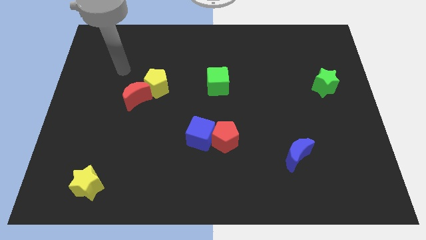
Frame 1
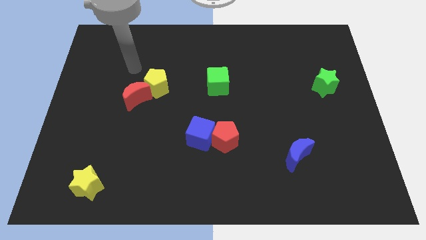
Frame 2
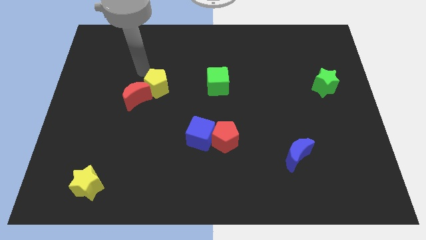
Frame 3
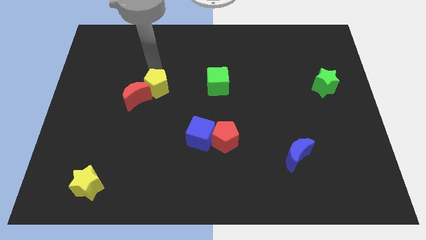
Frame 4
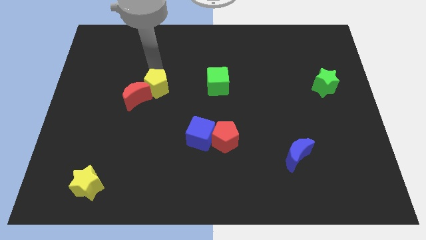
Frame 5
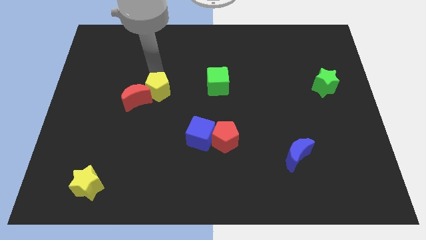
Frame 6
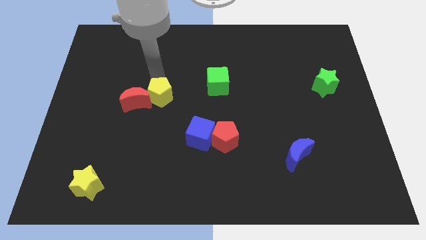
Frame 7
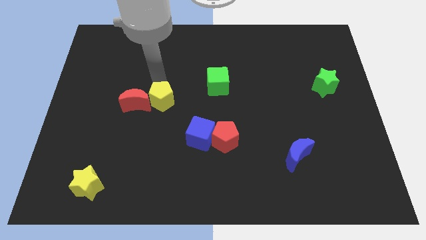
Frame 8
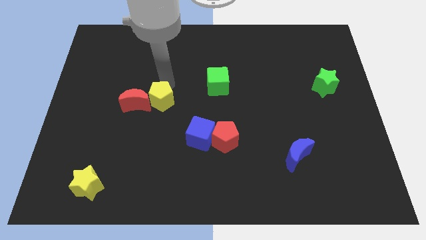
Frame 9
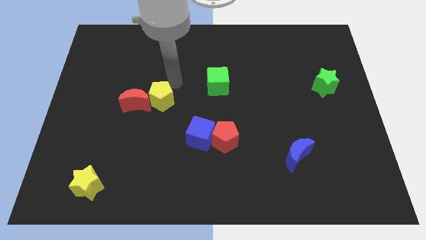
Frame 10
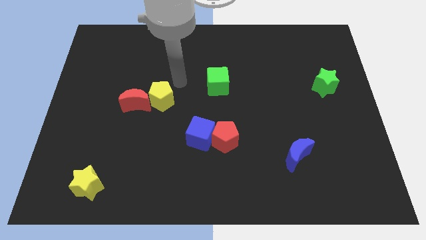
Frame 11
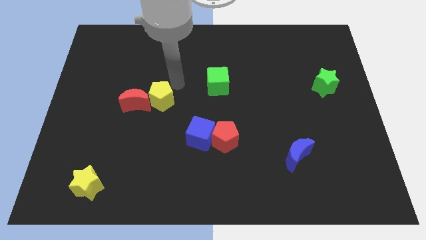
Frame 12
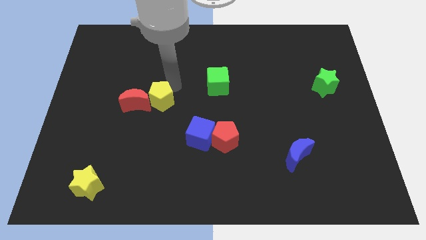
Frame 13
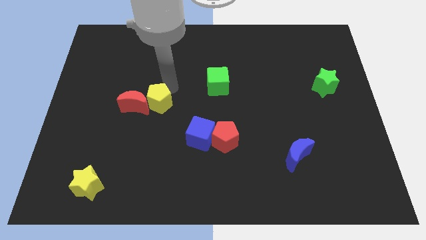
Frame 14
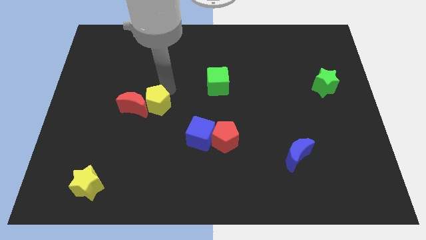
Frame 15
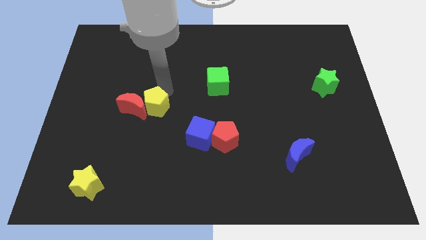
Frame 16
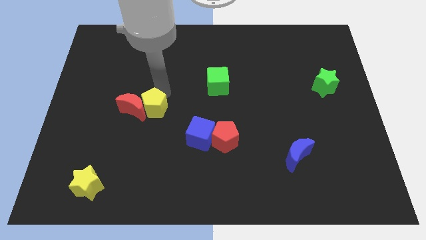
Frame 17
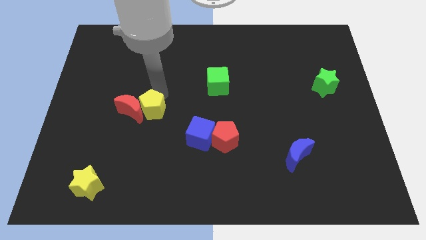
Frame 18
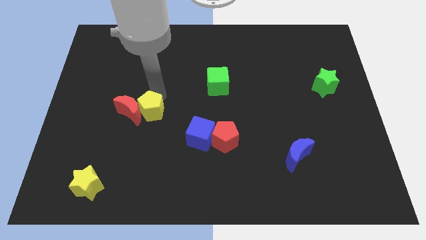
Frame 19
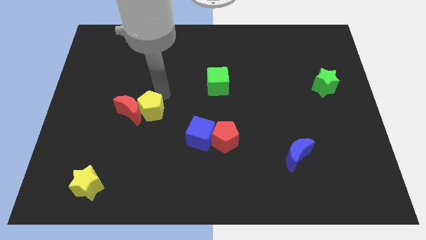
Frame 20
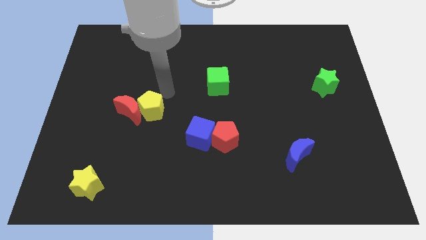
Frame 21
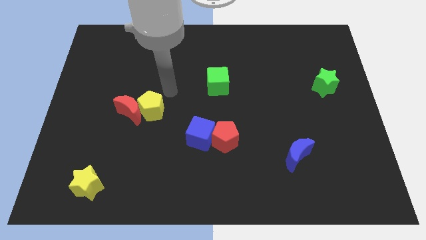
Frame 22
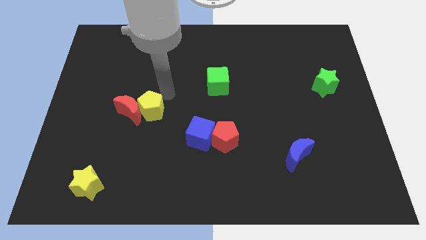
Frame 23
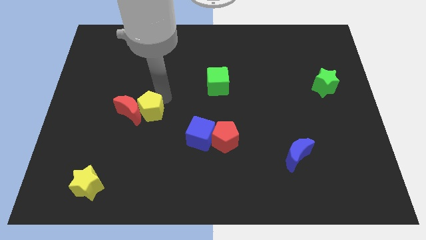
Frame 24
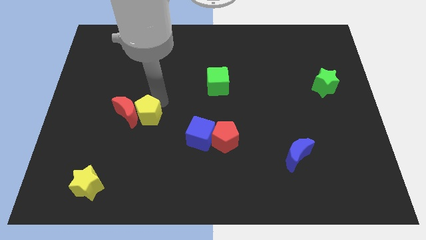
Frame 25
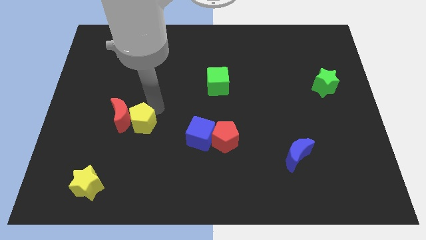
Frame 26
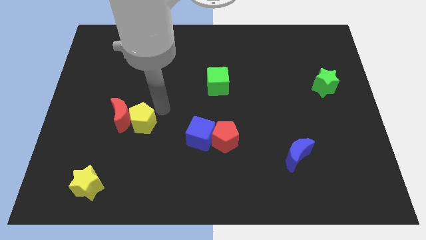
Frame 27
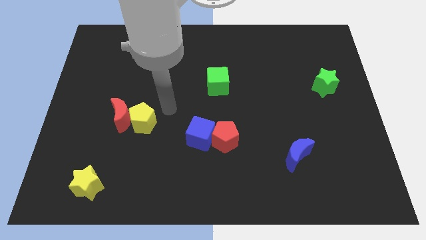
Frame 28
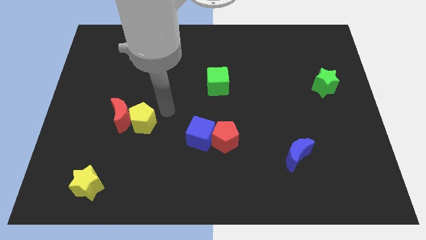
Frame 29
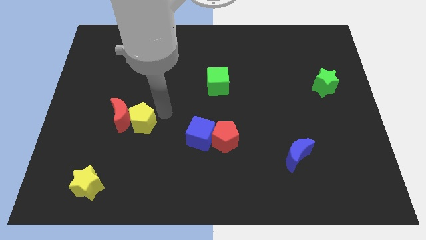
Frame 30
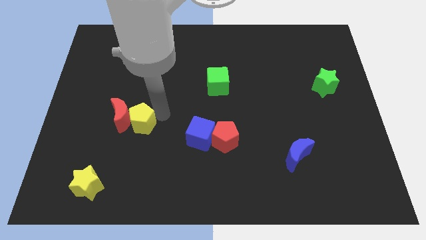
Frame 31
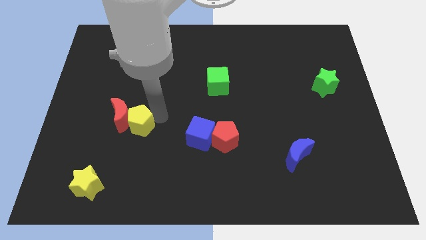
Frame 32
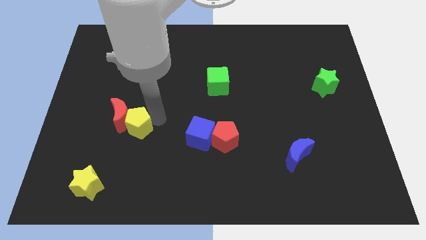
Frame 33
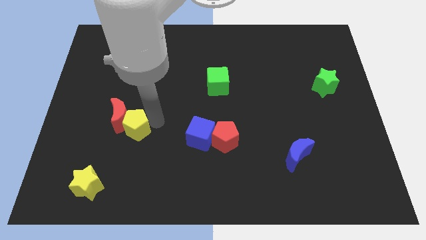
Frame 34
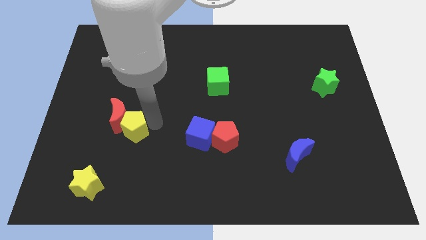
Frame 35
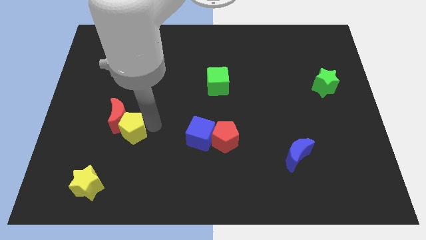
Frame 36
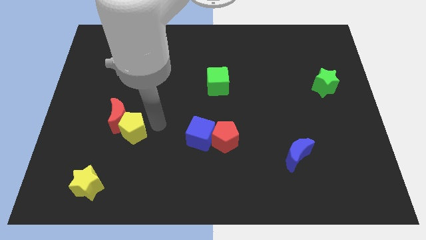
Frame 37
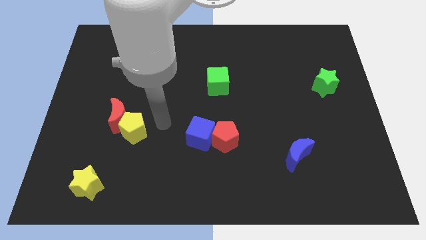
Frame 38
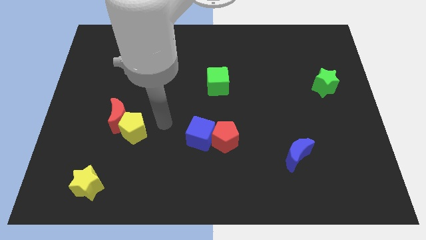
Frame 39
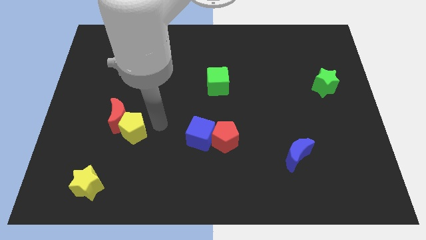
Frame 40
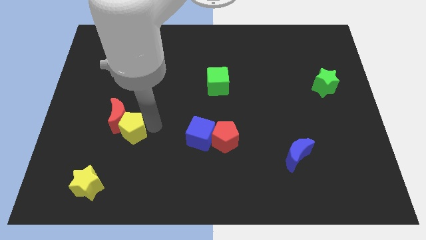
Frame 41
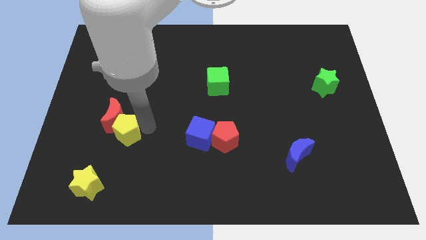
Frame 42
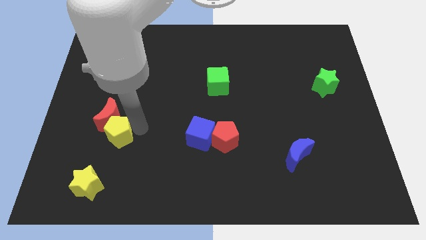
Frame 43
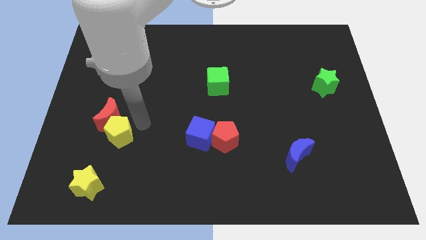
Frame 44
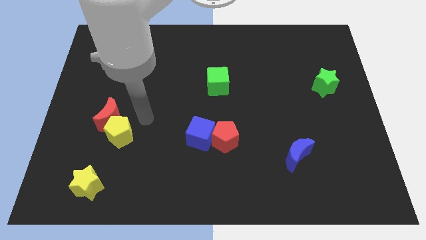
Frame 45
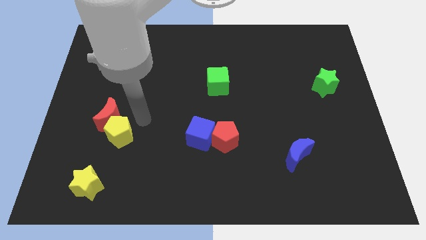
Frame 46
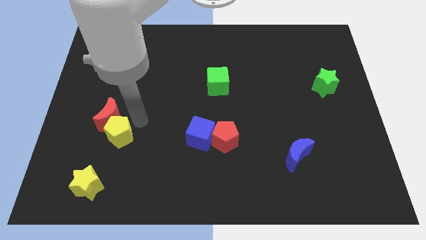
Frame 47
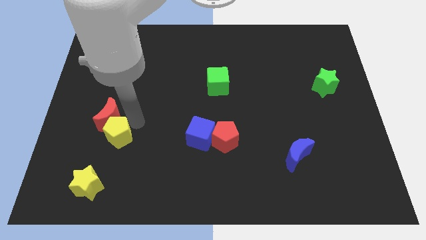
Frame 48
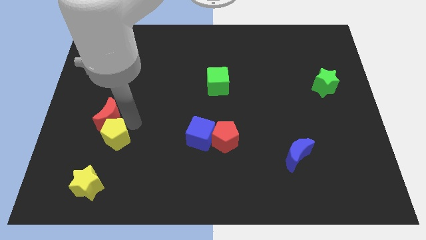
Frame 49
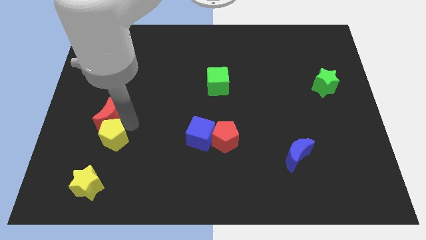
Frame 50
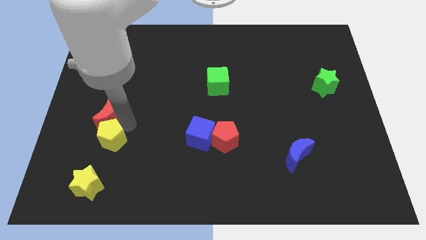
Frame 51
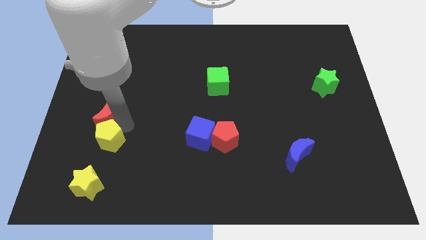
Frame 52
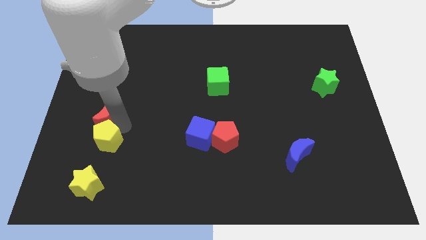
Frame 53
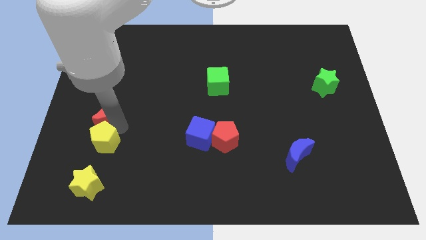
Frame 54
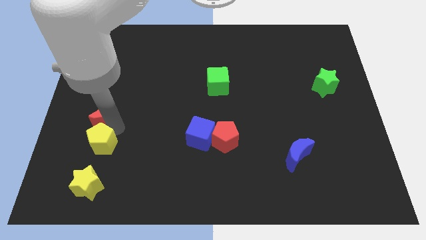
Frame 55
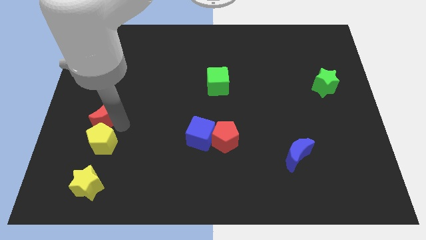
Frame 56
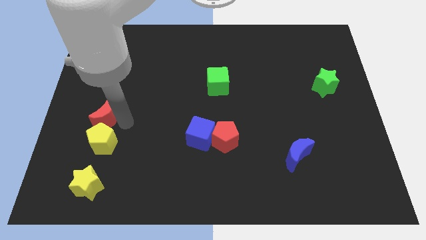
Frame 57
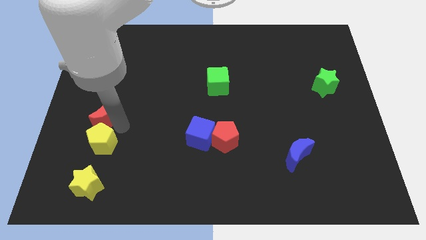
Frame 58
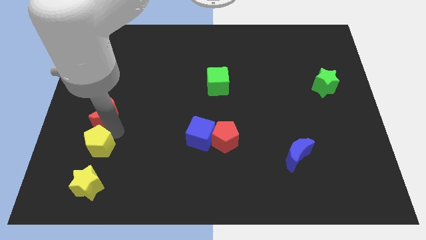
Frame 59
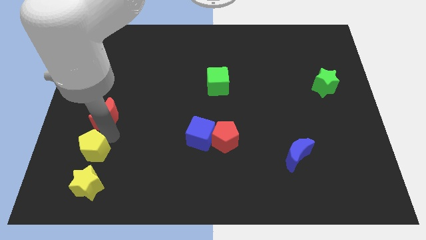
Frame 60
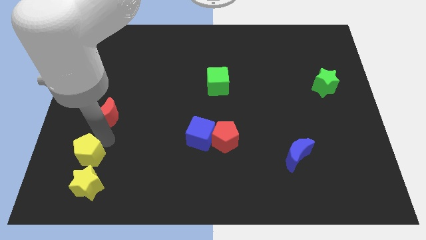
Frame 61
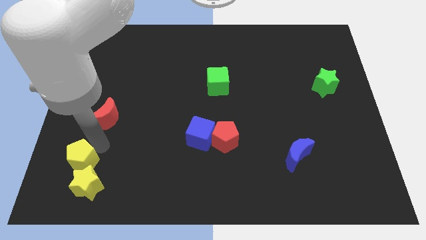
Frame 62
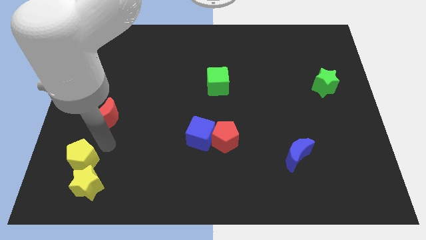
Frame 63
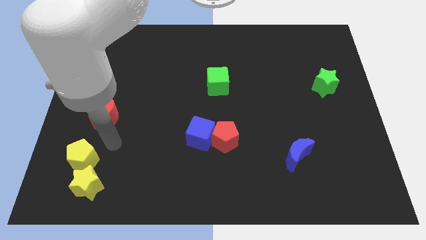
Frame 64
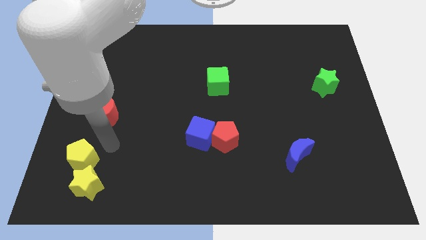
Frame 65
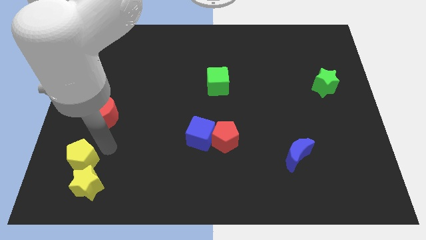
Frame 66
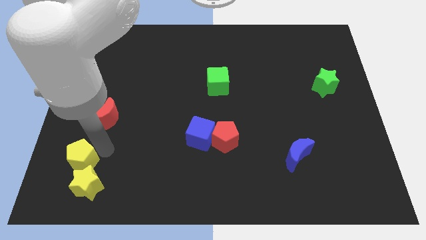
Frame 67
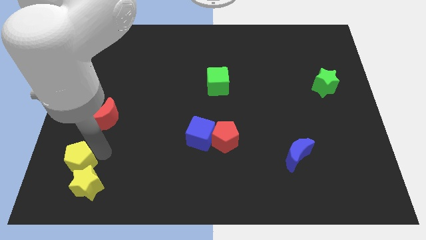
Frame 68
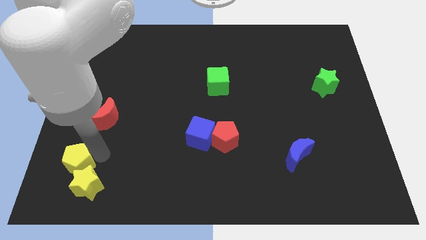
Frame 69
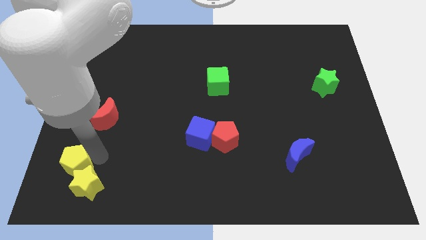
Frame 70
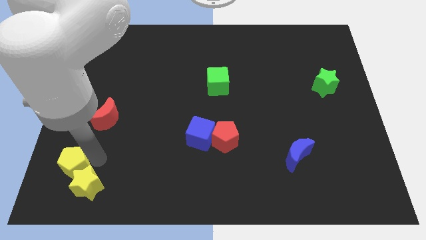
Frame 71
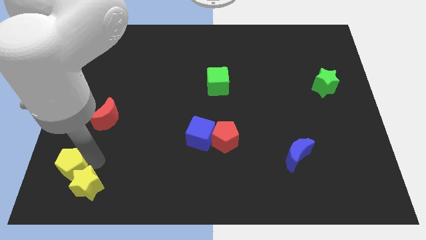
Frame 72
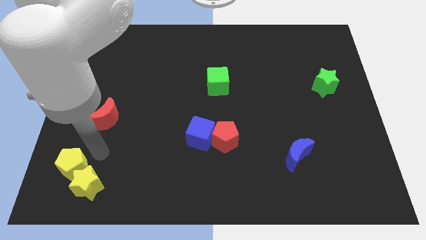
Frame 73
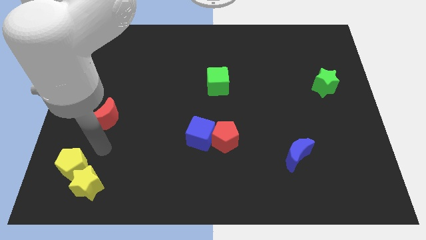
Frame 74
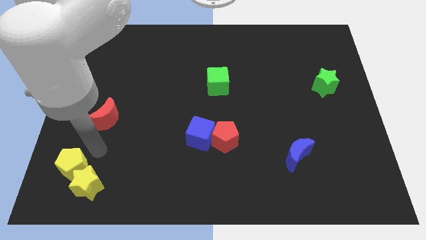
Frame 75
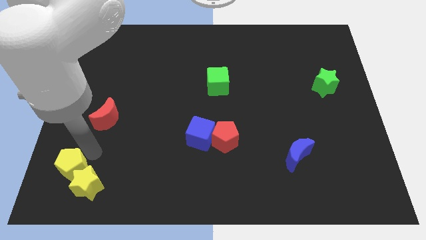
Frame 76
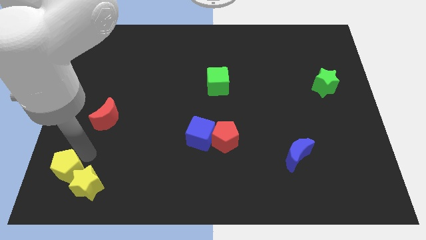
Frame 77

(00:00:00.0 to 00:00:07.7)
put the yellow pentagon to the bottom left of the board
